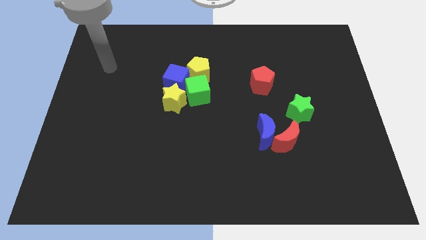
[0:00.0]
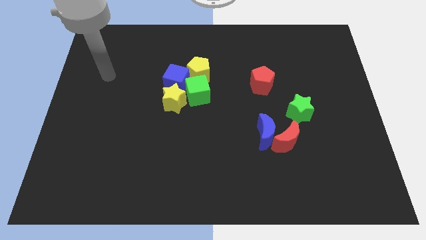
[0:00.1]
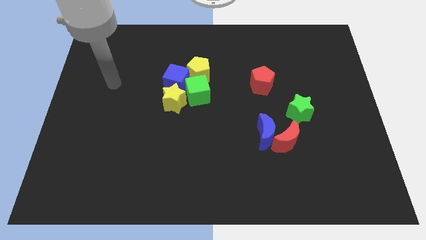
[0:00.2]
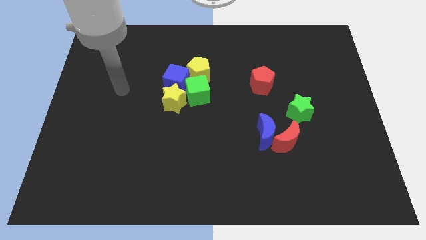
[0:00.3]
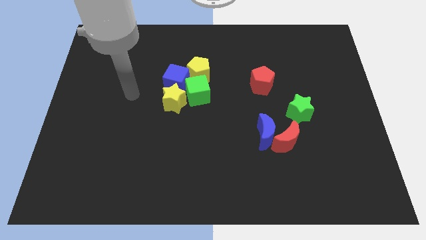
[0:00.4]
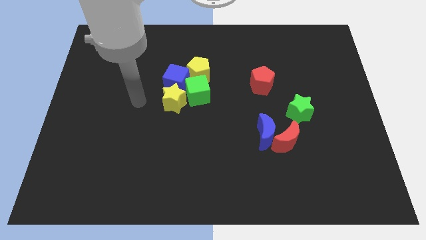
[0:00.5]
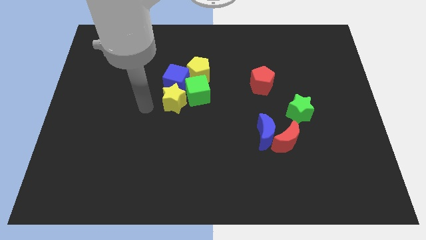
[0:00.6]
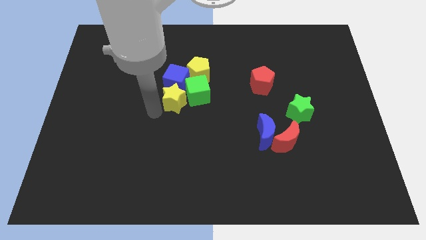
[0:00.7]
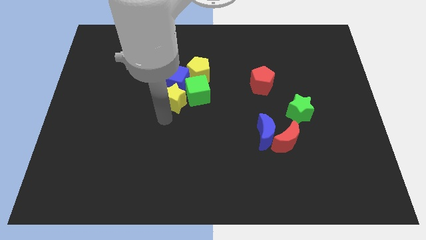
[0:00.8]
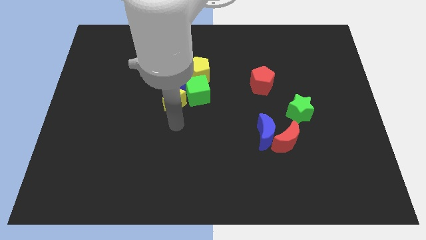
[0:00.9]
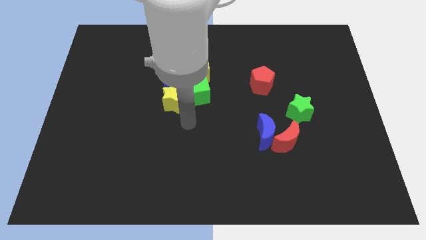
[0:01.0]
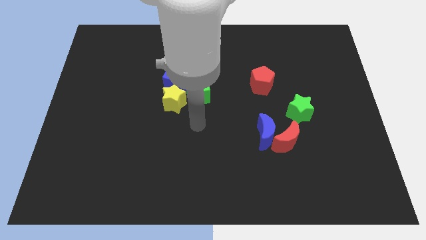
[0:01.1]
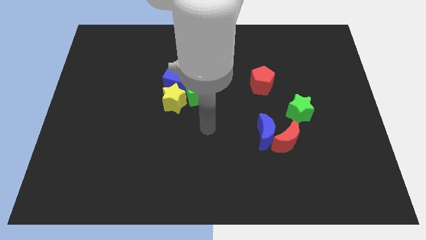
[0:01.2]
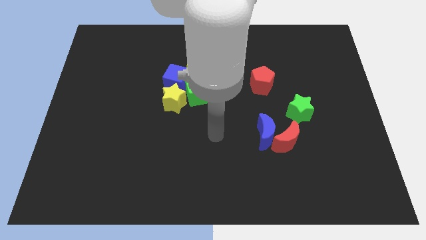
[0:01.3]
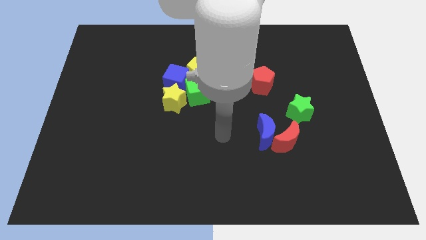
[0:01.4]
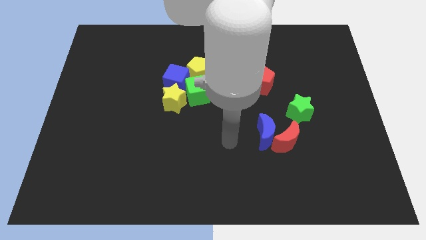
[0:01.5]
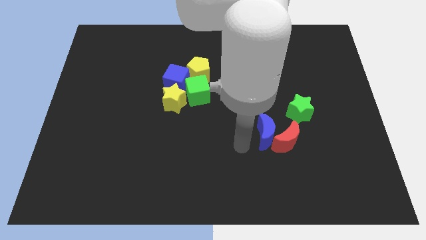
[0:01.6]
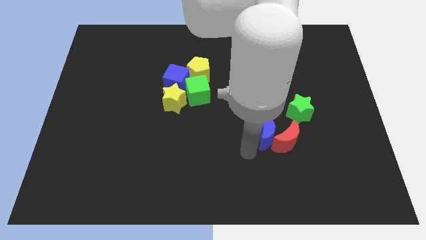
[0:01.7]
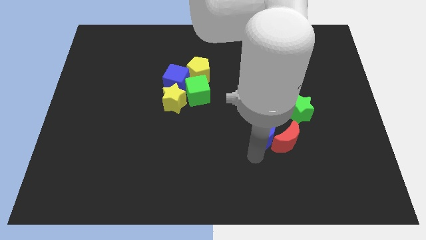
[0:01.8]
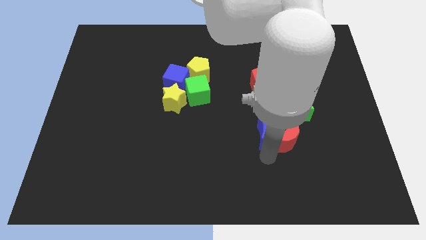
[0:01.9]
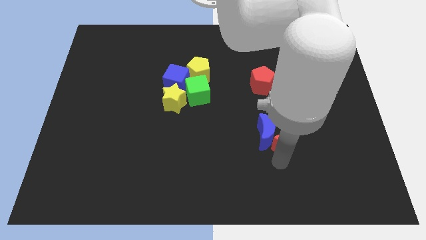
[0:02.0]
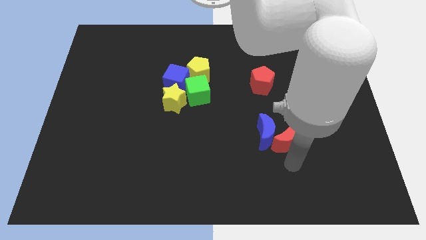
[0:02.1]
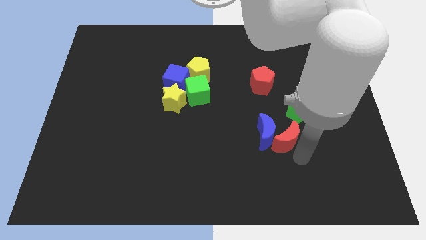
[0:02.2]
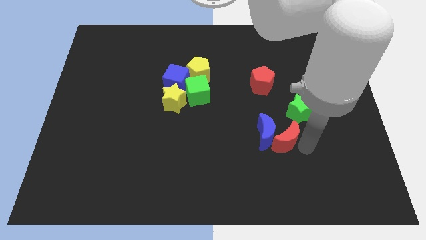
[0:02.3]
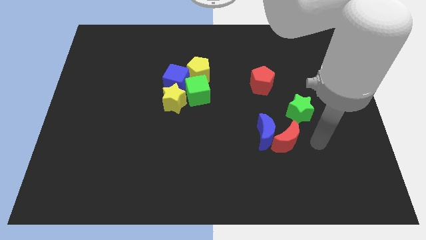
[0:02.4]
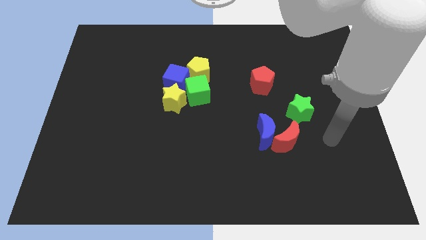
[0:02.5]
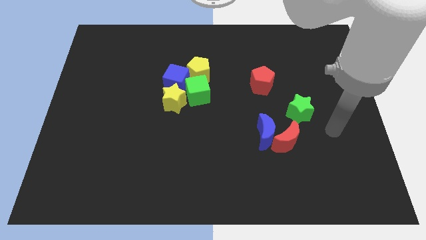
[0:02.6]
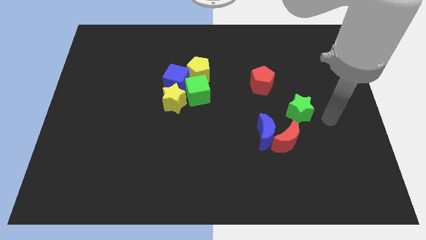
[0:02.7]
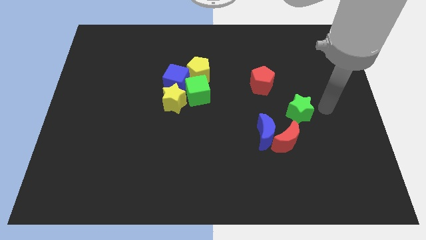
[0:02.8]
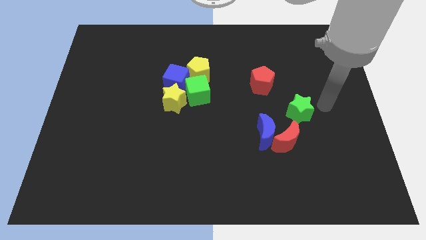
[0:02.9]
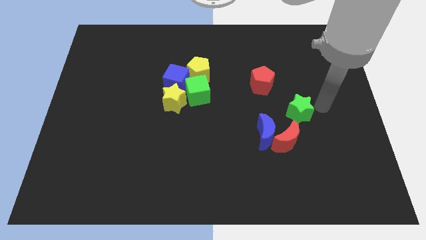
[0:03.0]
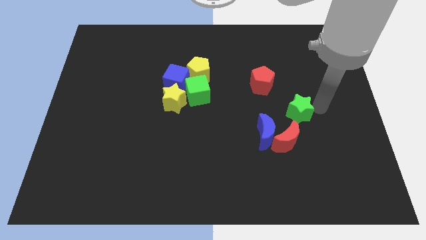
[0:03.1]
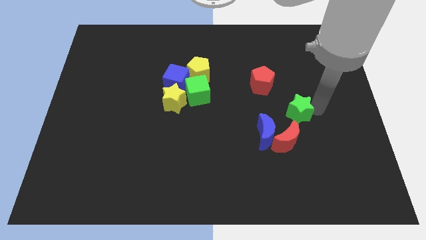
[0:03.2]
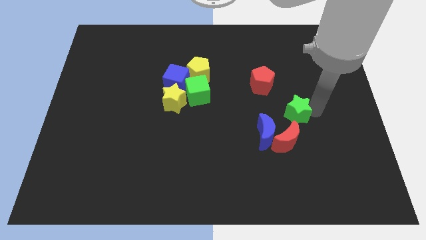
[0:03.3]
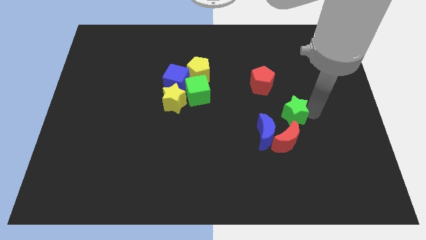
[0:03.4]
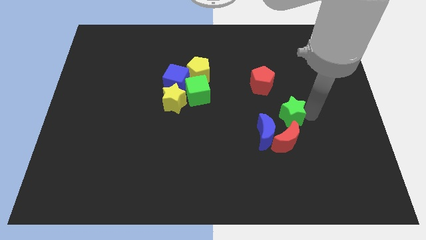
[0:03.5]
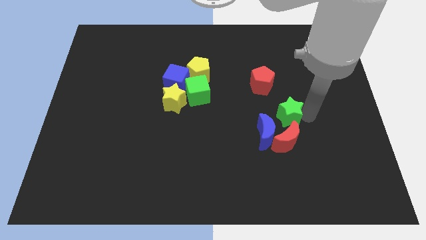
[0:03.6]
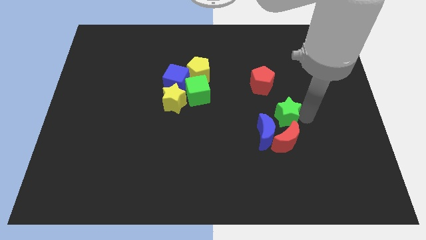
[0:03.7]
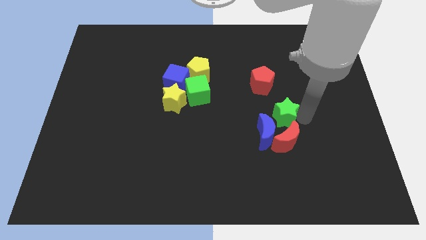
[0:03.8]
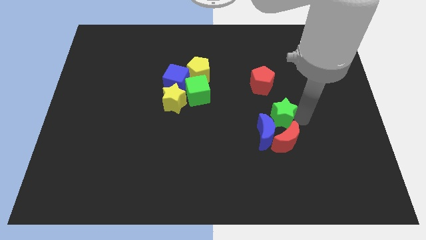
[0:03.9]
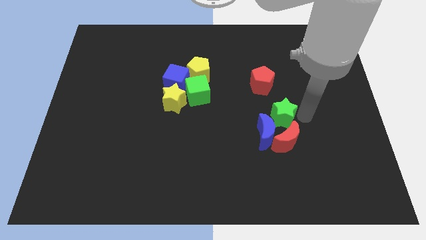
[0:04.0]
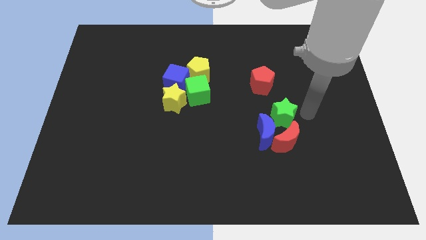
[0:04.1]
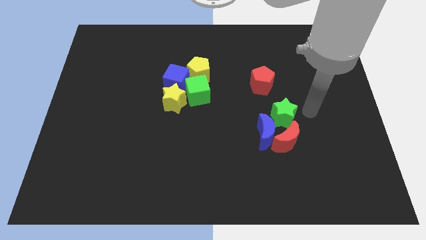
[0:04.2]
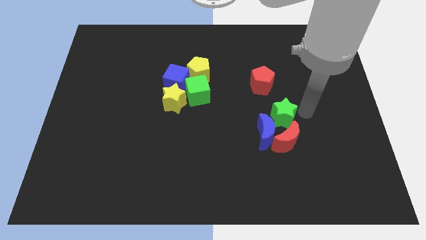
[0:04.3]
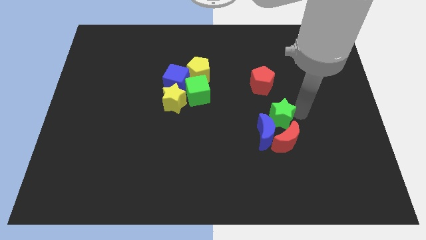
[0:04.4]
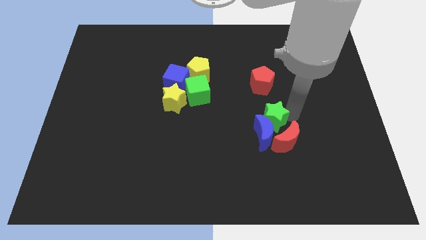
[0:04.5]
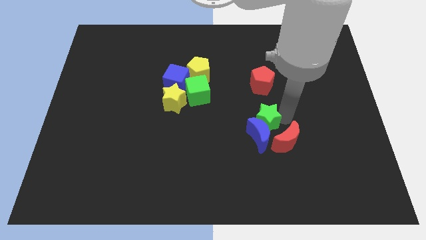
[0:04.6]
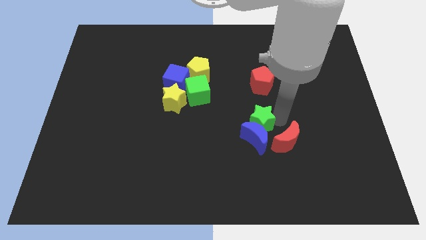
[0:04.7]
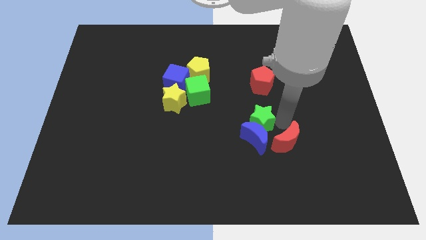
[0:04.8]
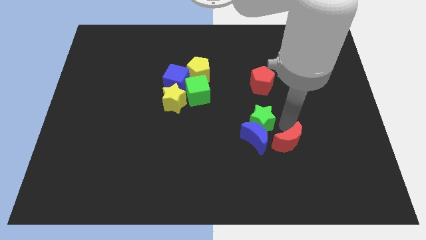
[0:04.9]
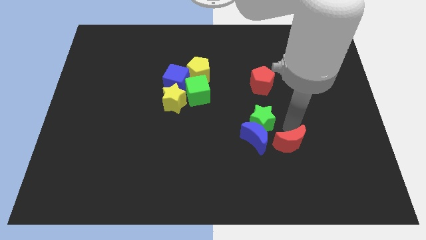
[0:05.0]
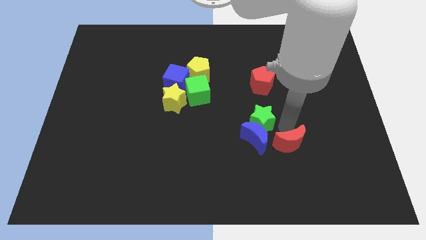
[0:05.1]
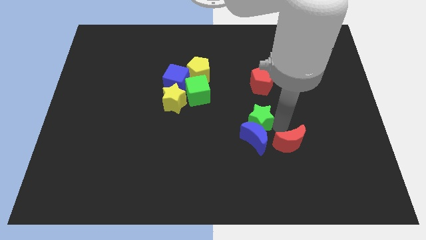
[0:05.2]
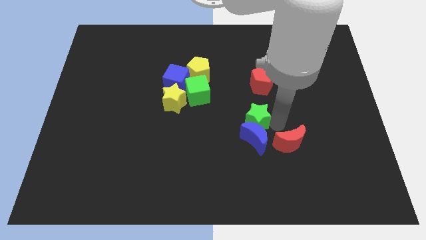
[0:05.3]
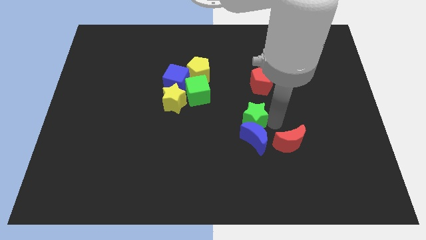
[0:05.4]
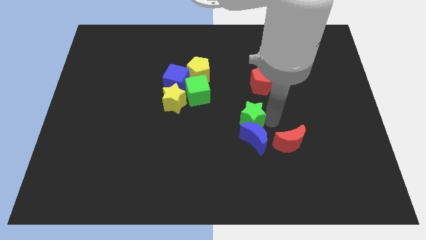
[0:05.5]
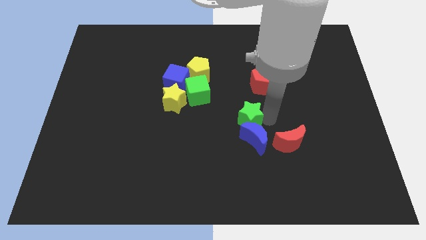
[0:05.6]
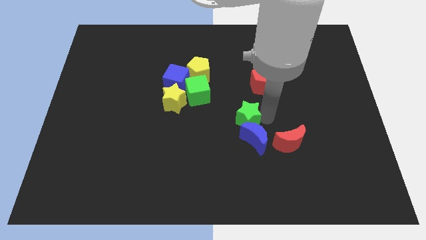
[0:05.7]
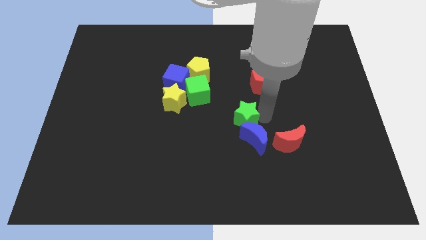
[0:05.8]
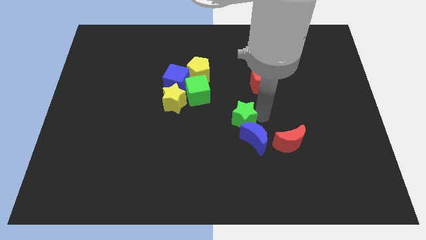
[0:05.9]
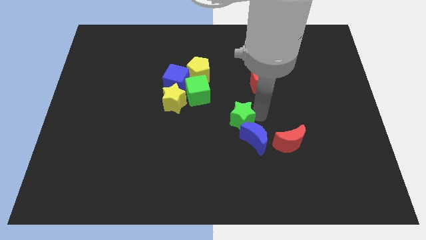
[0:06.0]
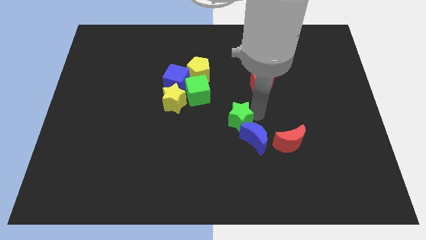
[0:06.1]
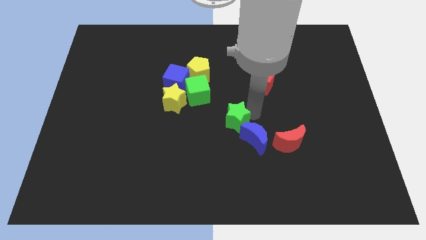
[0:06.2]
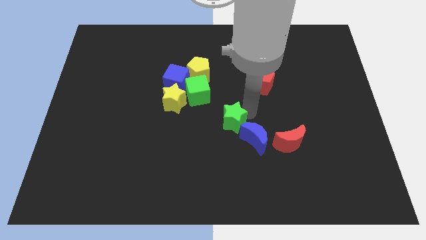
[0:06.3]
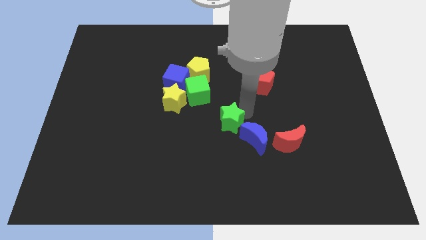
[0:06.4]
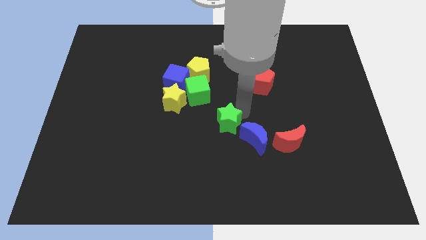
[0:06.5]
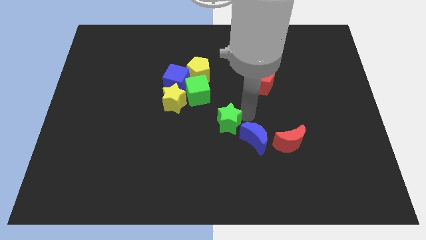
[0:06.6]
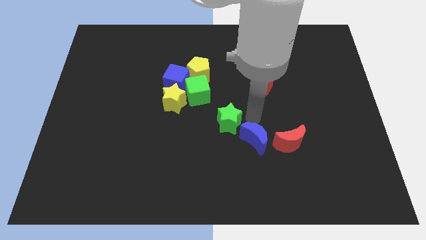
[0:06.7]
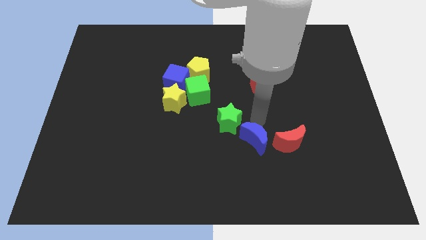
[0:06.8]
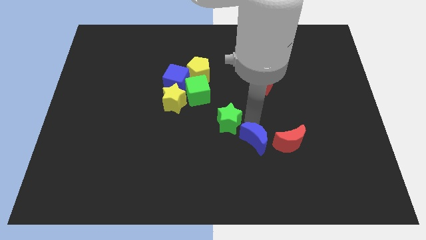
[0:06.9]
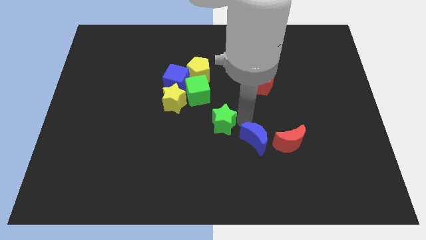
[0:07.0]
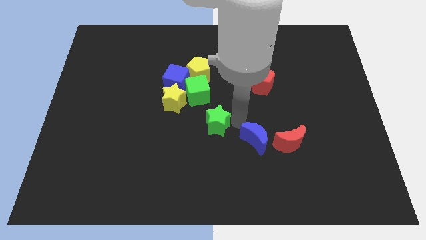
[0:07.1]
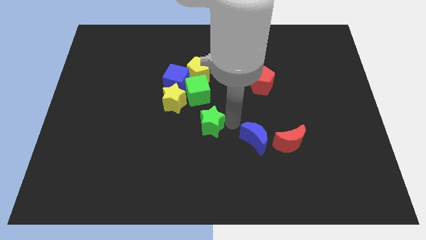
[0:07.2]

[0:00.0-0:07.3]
slide the green star left

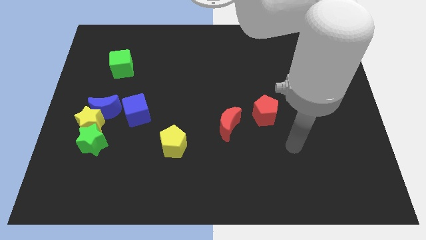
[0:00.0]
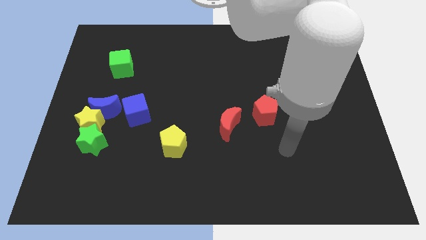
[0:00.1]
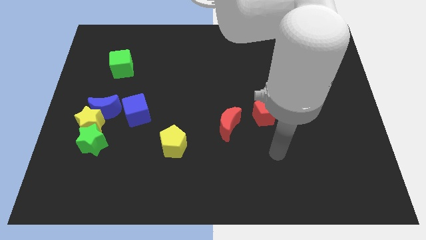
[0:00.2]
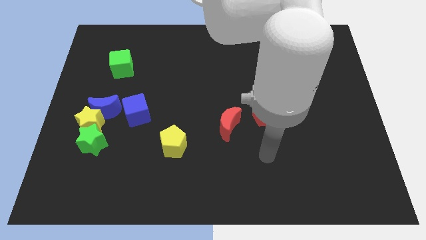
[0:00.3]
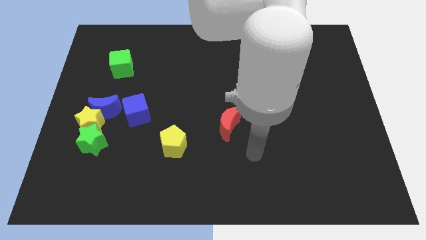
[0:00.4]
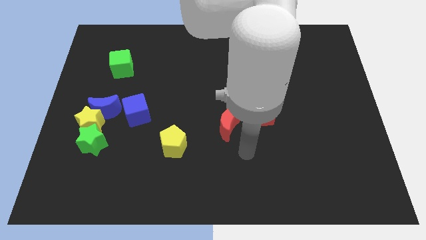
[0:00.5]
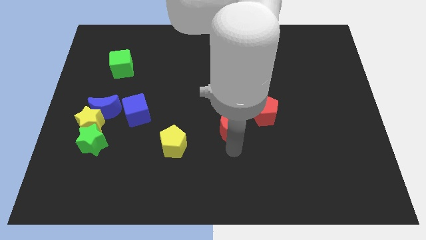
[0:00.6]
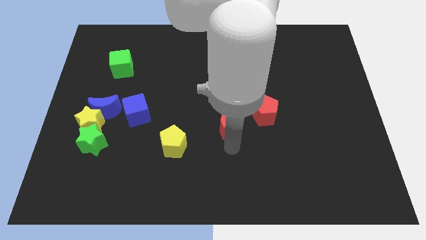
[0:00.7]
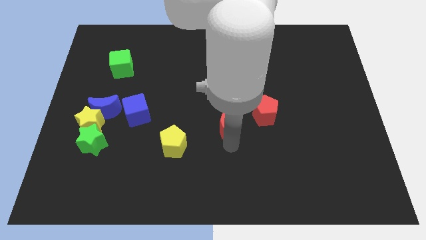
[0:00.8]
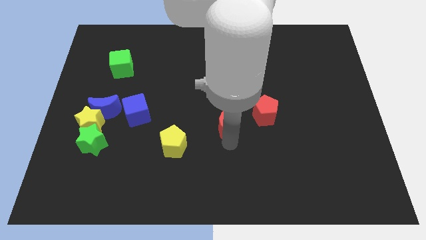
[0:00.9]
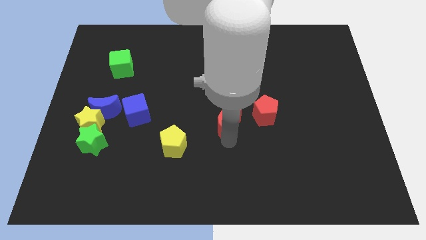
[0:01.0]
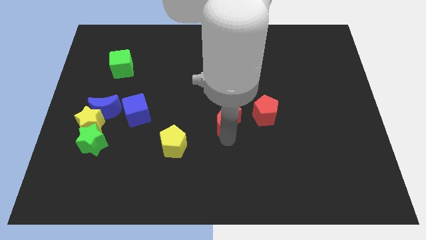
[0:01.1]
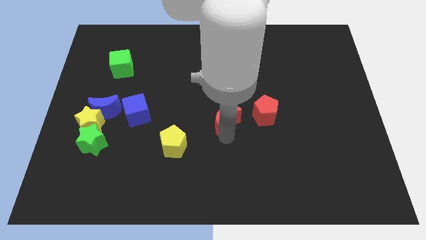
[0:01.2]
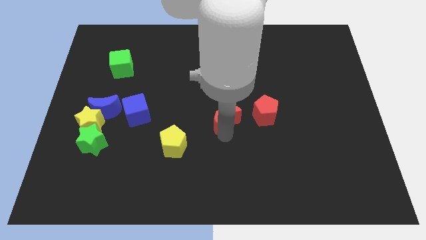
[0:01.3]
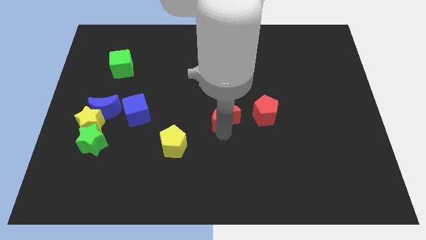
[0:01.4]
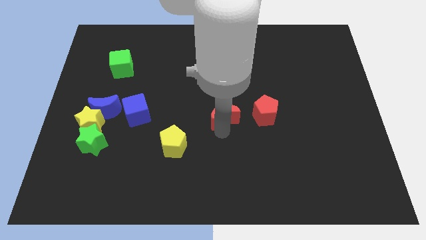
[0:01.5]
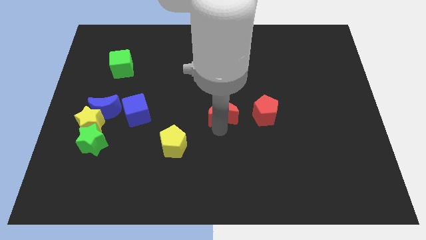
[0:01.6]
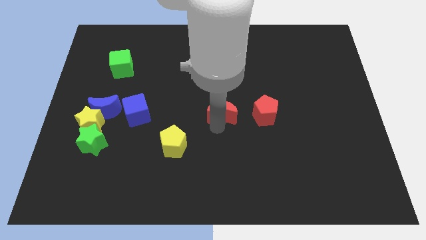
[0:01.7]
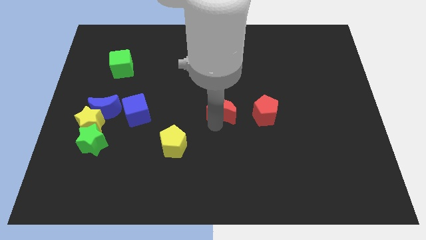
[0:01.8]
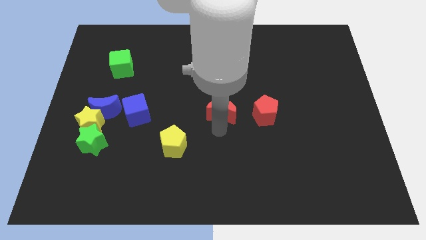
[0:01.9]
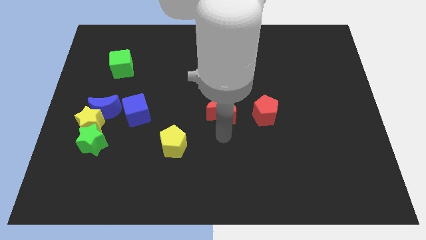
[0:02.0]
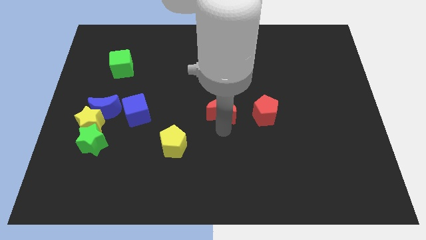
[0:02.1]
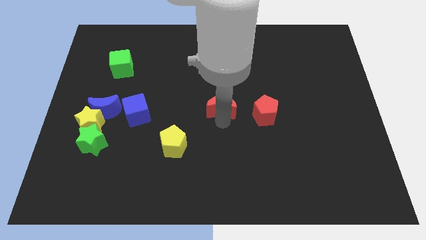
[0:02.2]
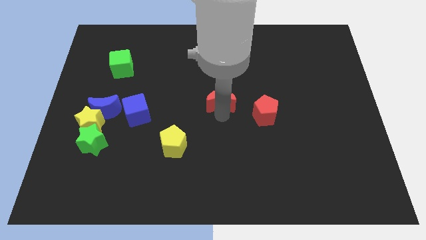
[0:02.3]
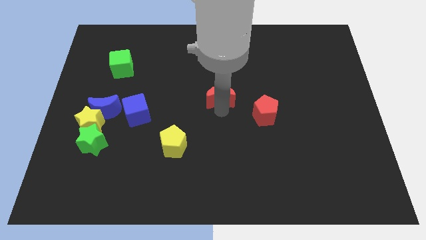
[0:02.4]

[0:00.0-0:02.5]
move the red moon slightly upwards
